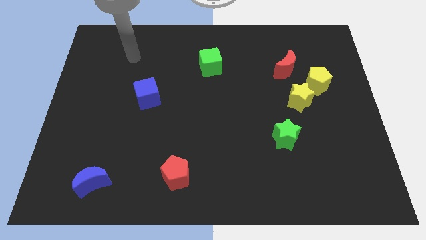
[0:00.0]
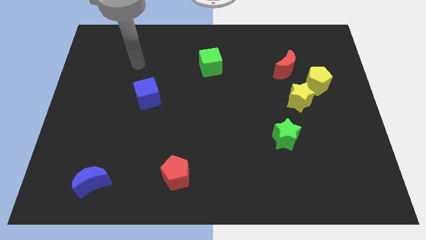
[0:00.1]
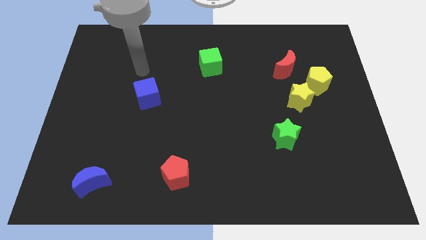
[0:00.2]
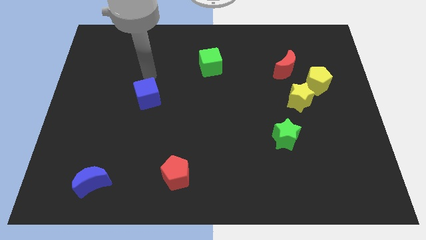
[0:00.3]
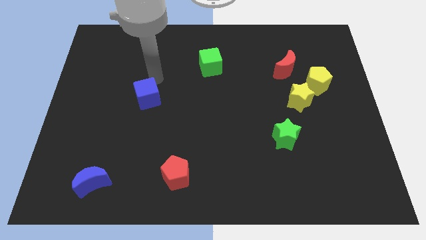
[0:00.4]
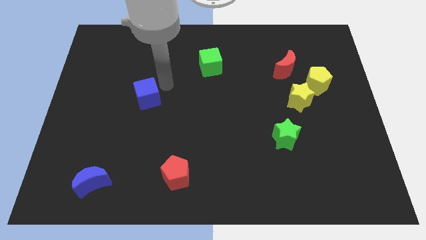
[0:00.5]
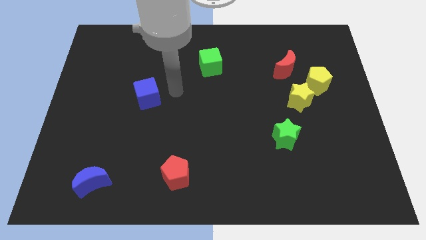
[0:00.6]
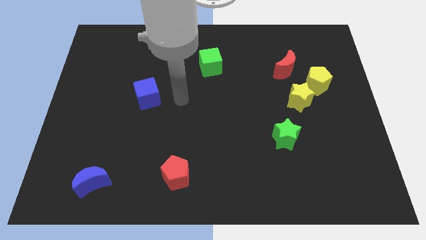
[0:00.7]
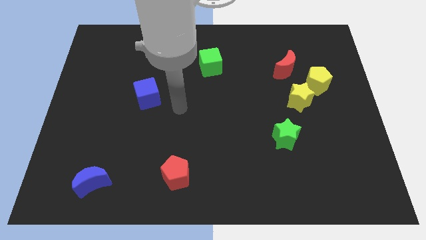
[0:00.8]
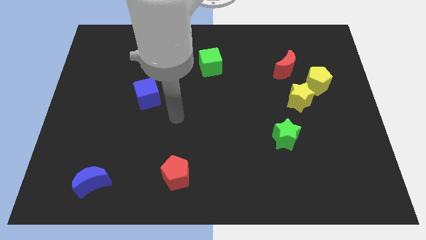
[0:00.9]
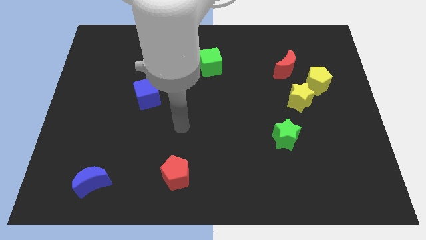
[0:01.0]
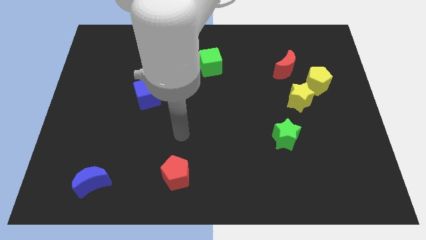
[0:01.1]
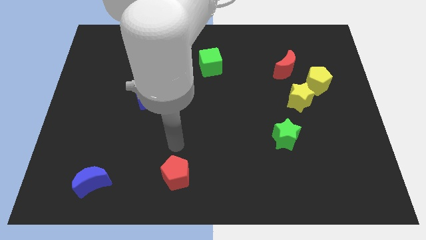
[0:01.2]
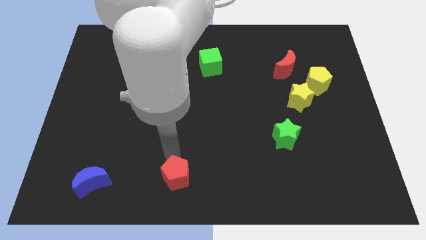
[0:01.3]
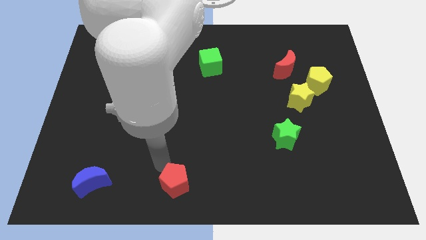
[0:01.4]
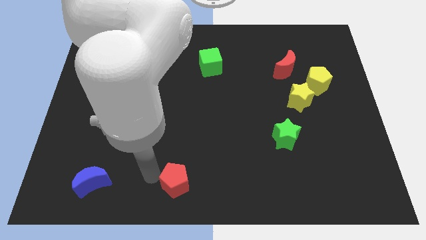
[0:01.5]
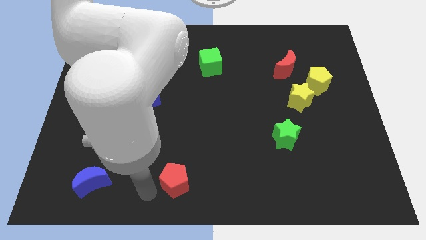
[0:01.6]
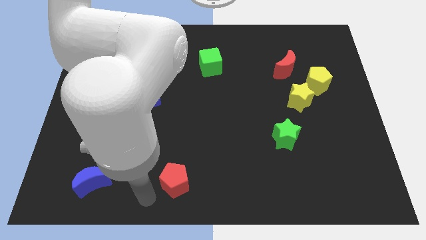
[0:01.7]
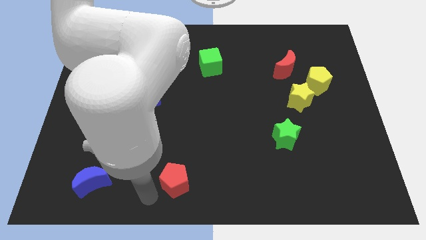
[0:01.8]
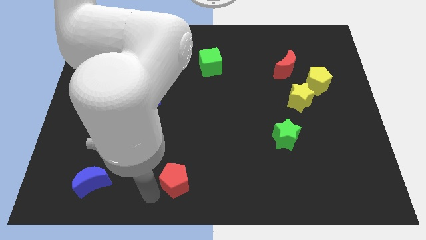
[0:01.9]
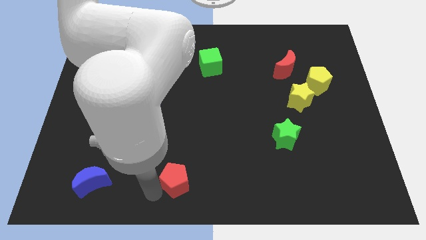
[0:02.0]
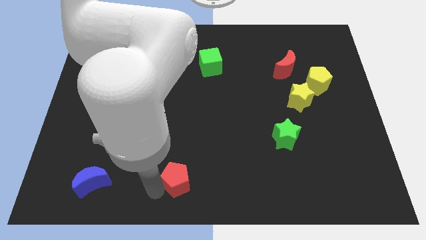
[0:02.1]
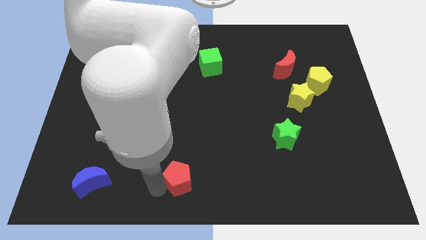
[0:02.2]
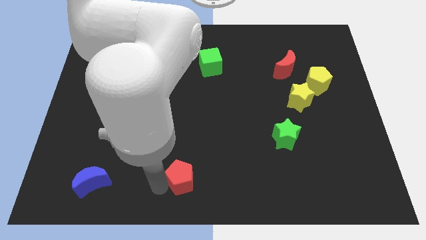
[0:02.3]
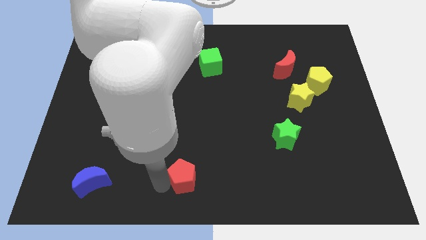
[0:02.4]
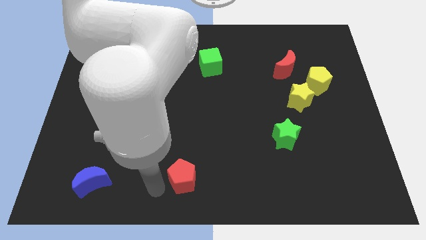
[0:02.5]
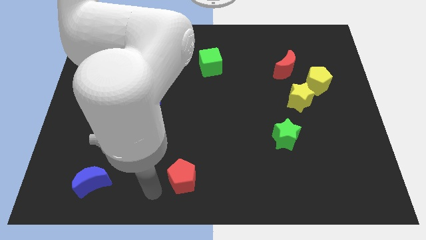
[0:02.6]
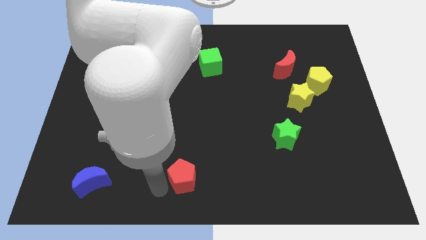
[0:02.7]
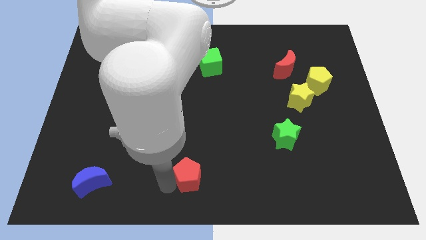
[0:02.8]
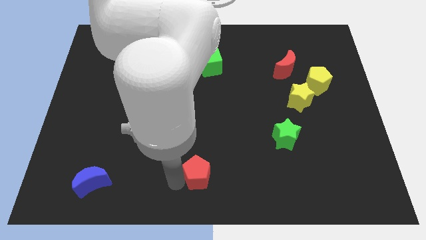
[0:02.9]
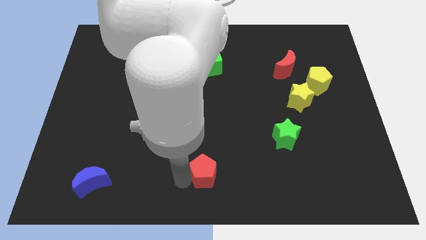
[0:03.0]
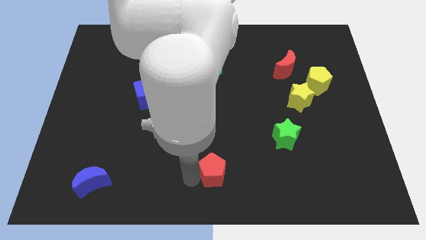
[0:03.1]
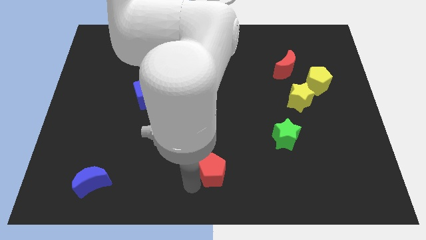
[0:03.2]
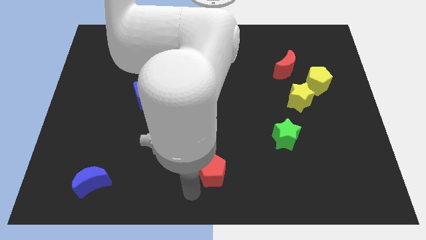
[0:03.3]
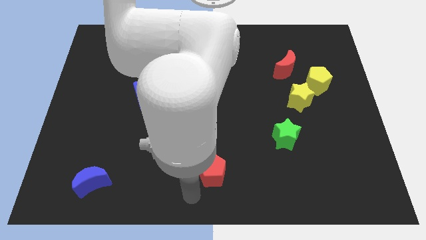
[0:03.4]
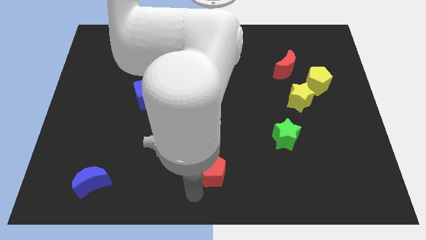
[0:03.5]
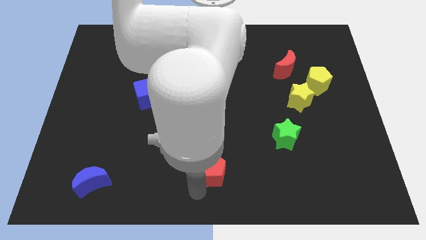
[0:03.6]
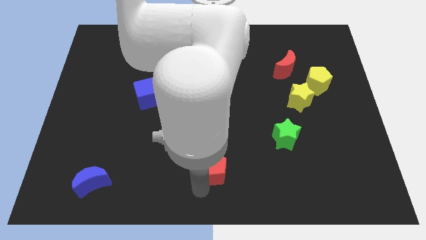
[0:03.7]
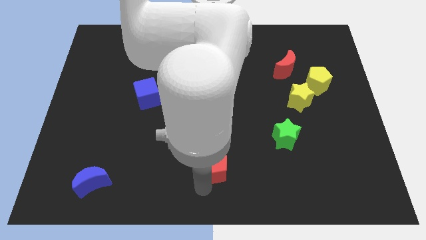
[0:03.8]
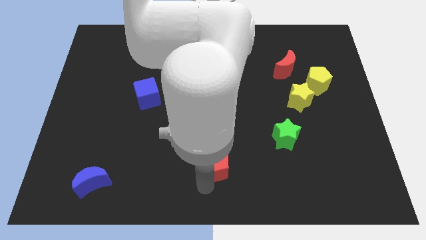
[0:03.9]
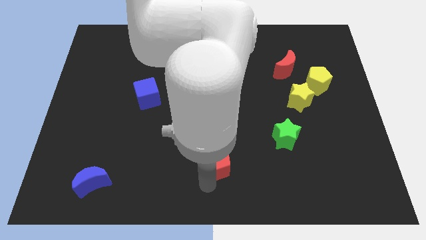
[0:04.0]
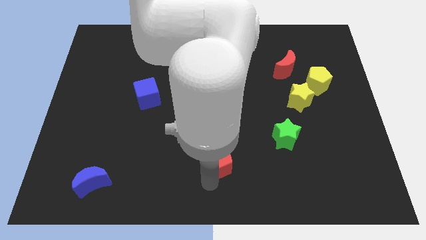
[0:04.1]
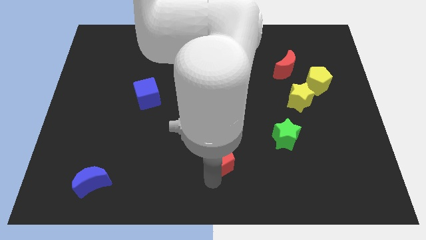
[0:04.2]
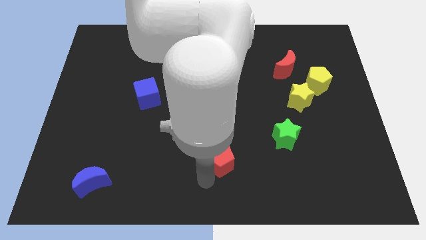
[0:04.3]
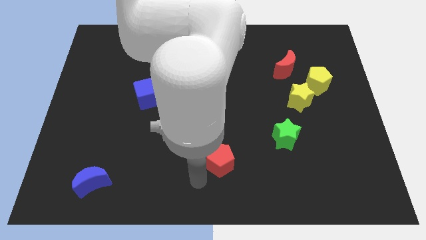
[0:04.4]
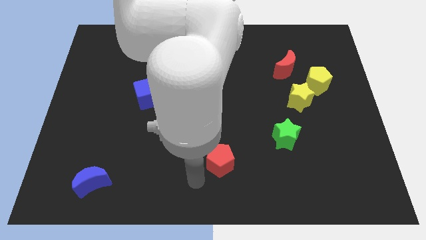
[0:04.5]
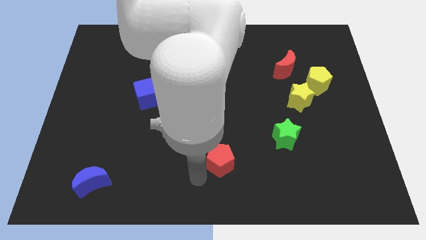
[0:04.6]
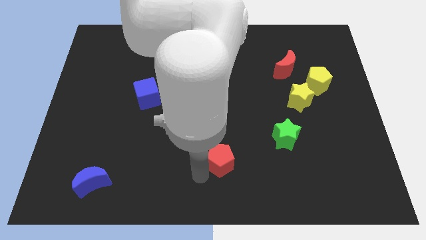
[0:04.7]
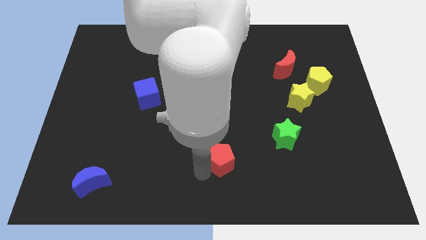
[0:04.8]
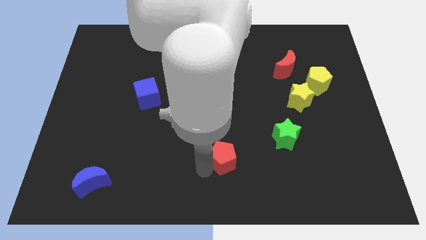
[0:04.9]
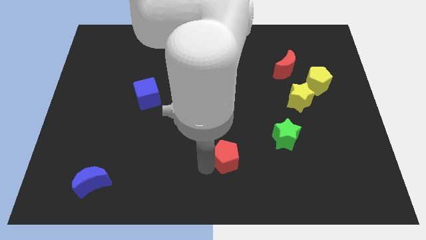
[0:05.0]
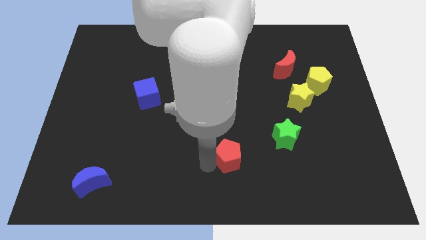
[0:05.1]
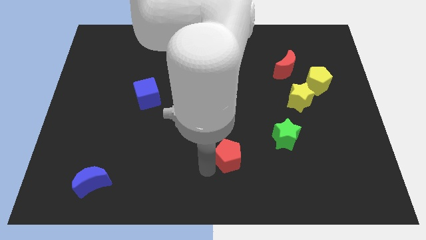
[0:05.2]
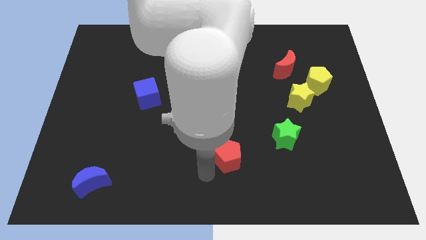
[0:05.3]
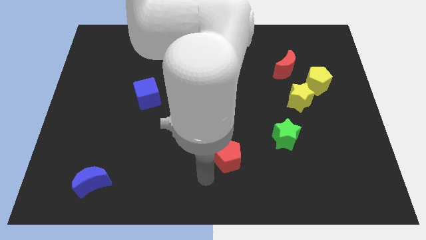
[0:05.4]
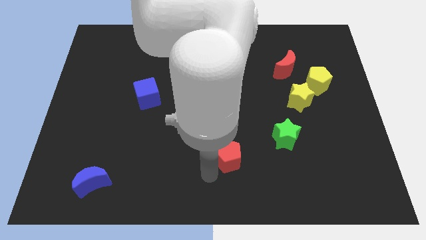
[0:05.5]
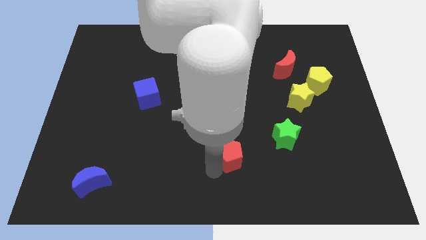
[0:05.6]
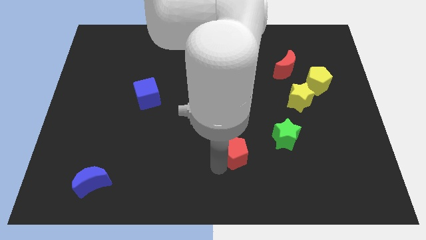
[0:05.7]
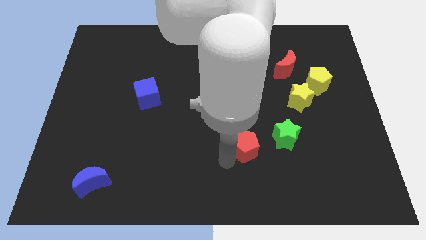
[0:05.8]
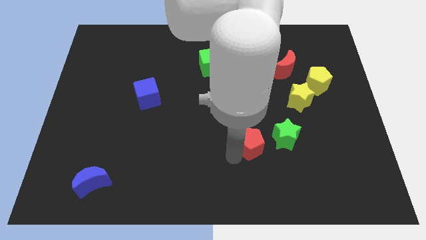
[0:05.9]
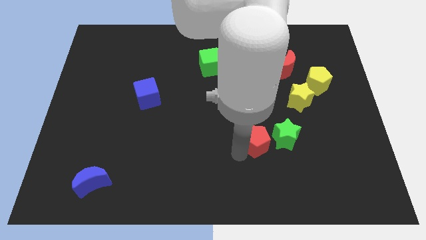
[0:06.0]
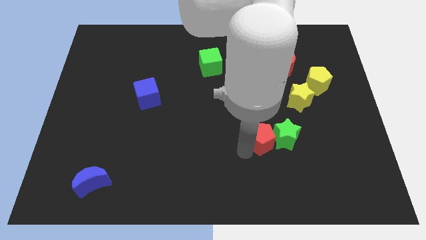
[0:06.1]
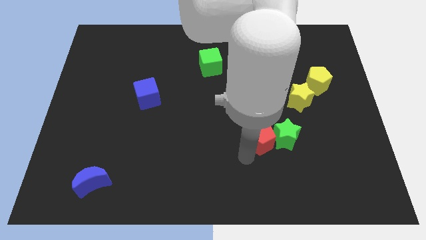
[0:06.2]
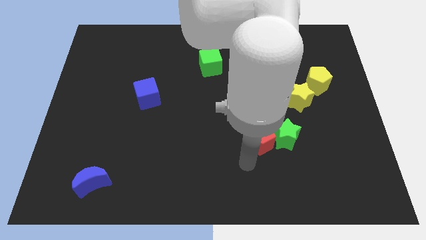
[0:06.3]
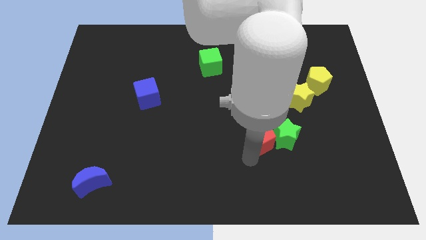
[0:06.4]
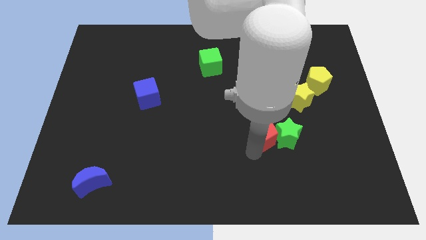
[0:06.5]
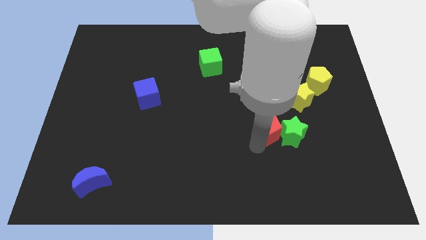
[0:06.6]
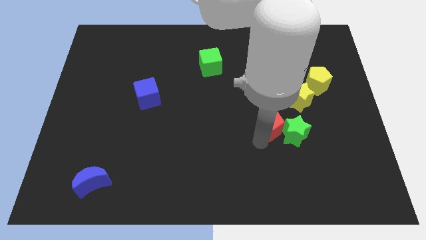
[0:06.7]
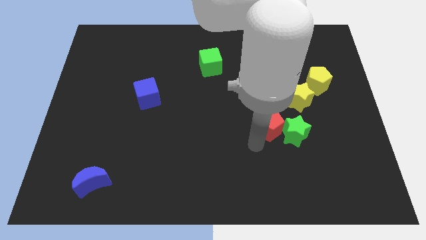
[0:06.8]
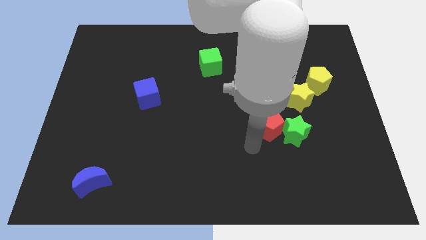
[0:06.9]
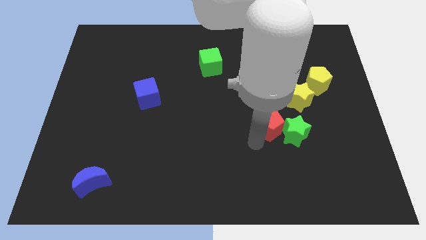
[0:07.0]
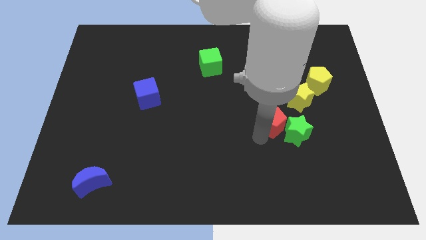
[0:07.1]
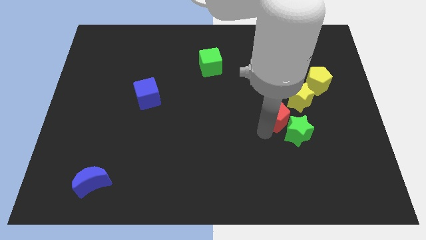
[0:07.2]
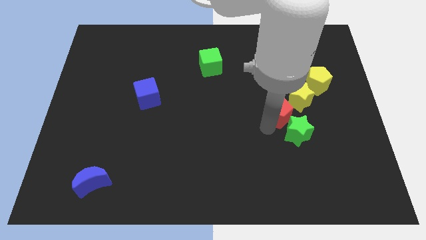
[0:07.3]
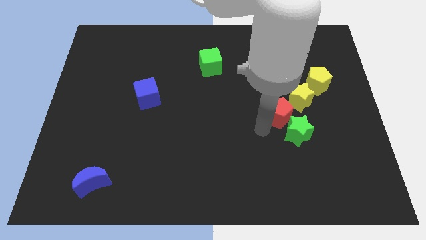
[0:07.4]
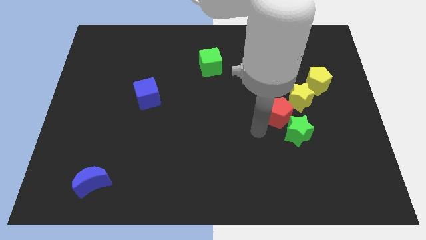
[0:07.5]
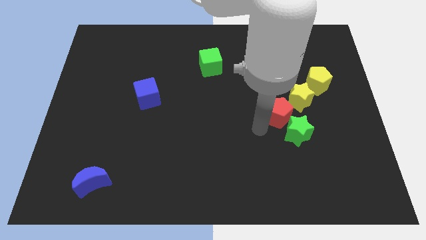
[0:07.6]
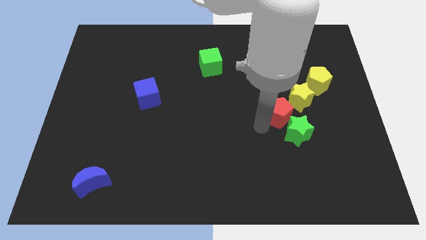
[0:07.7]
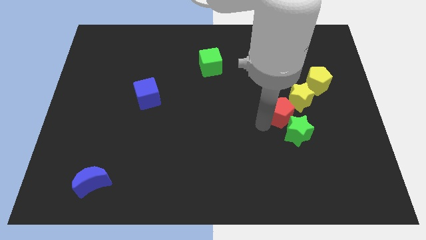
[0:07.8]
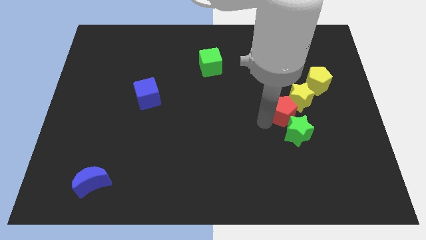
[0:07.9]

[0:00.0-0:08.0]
push the red pentagon towards the yellow star
